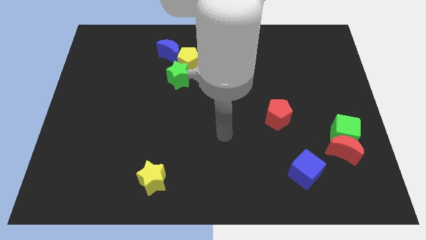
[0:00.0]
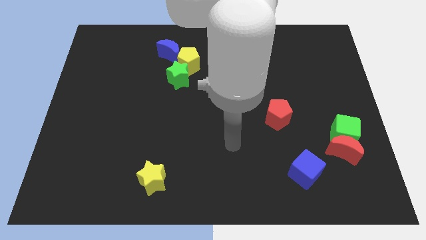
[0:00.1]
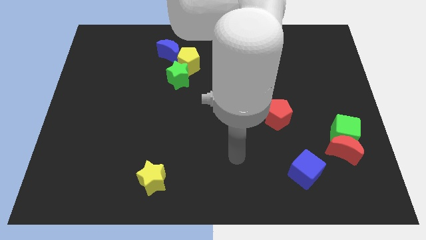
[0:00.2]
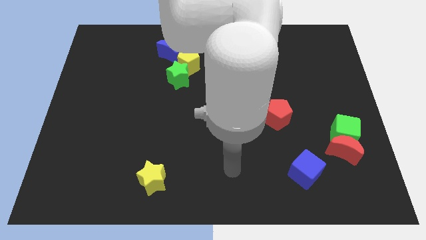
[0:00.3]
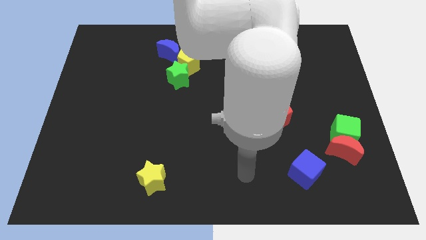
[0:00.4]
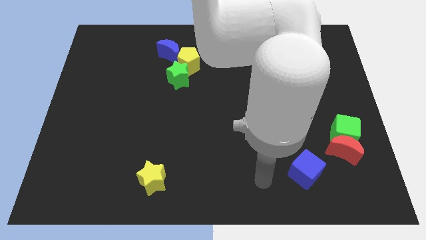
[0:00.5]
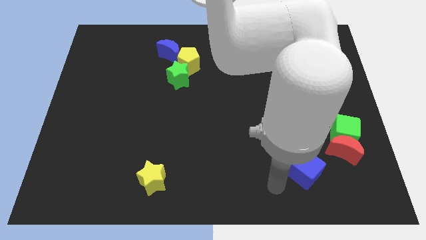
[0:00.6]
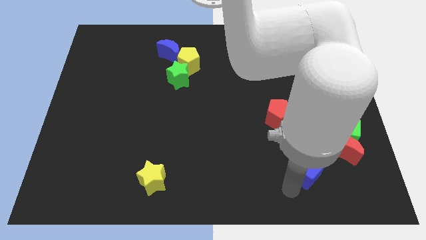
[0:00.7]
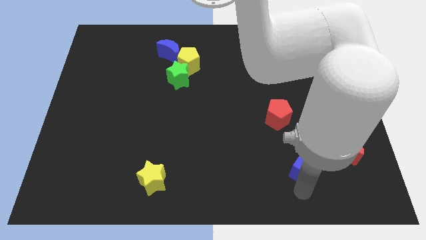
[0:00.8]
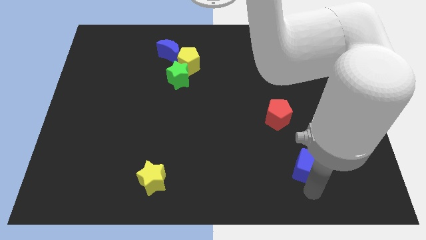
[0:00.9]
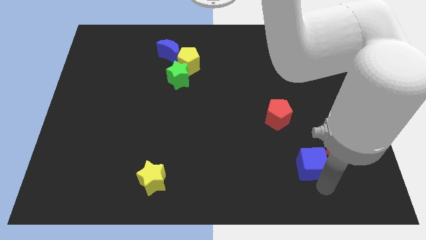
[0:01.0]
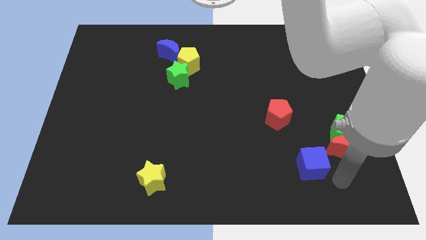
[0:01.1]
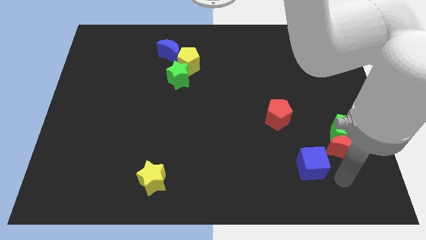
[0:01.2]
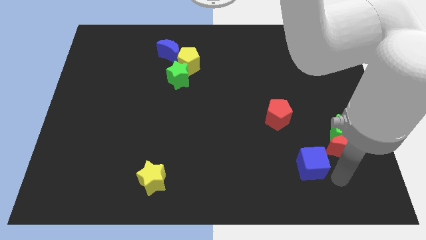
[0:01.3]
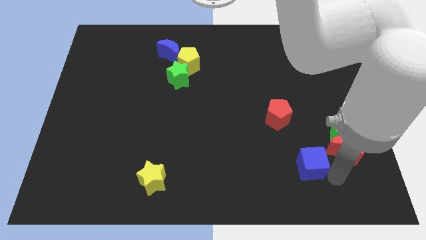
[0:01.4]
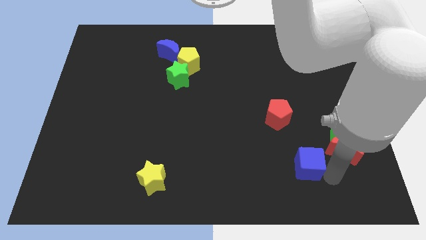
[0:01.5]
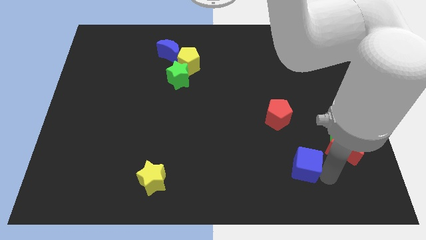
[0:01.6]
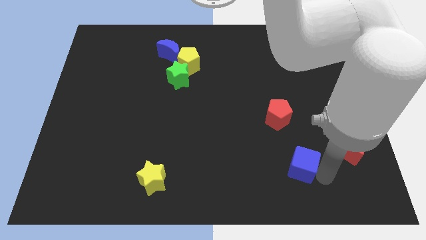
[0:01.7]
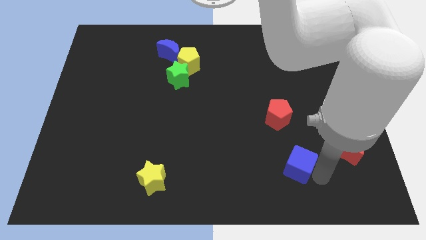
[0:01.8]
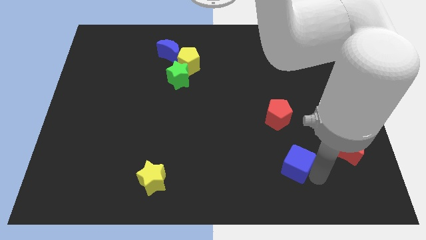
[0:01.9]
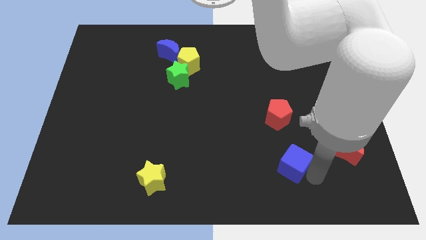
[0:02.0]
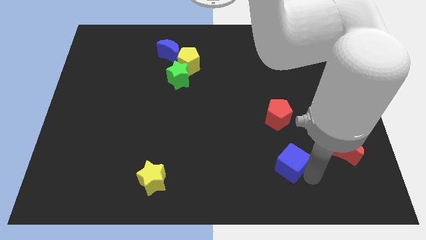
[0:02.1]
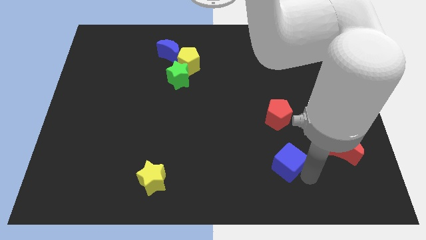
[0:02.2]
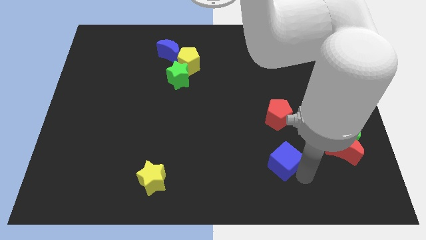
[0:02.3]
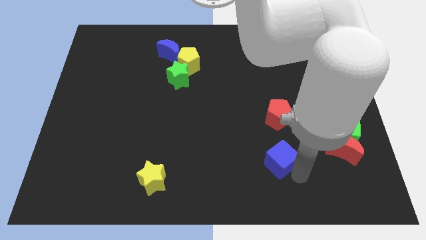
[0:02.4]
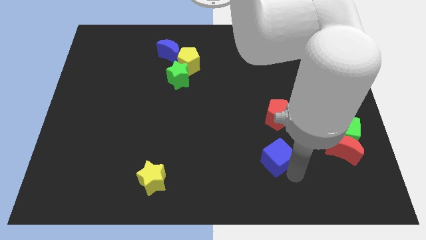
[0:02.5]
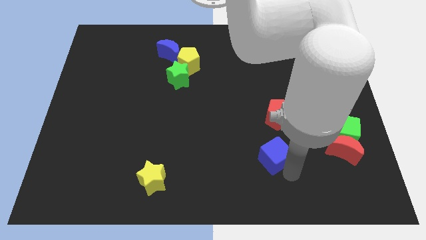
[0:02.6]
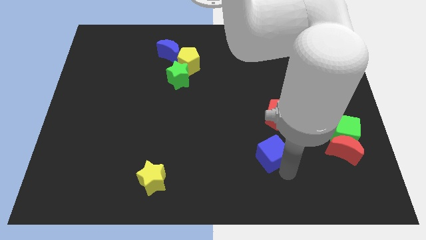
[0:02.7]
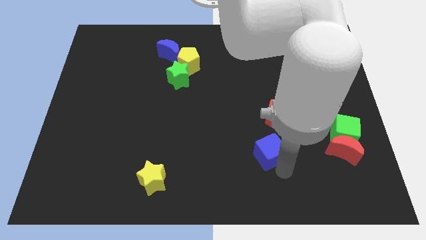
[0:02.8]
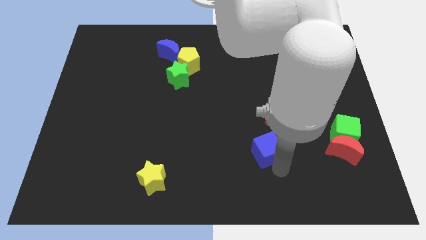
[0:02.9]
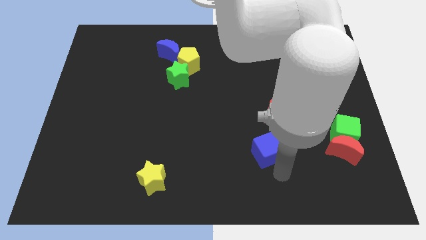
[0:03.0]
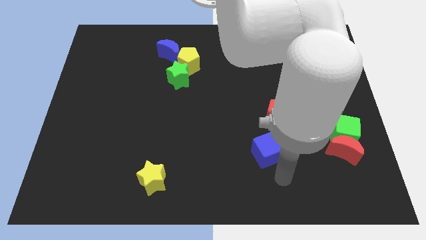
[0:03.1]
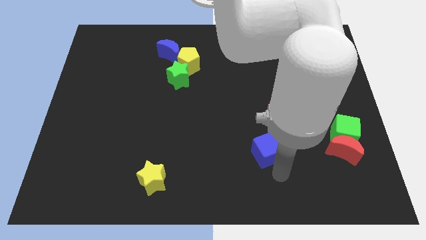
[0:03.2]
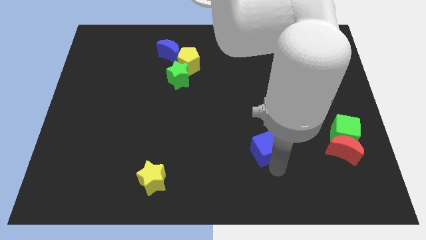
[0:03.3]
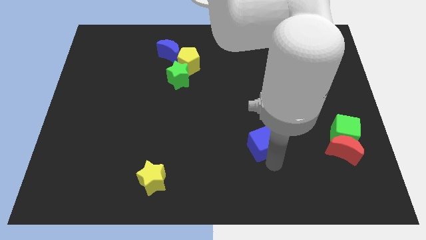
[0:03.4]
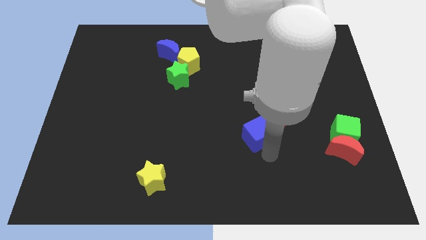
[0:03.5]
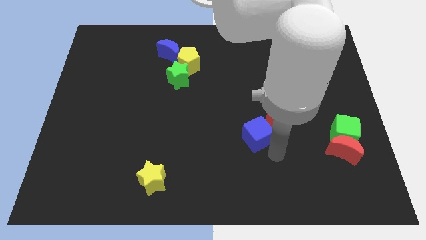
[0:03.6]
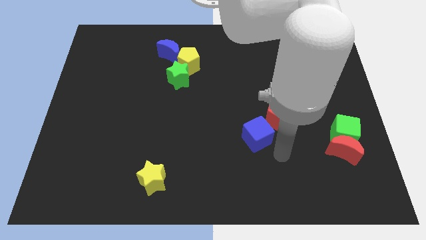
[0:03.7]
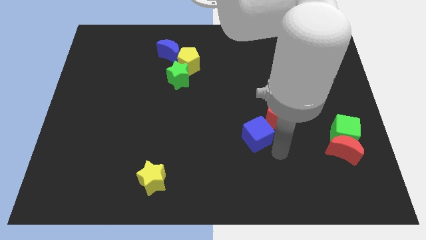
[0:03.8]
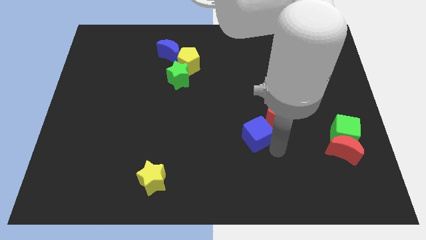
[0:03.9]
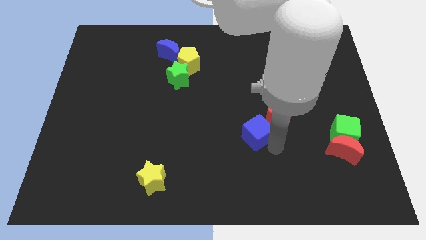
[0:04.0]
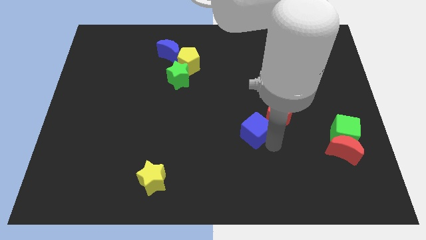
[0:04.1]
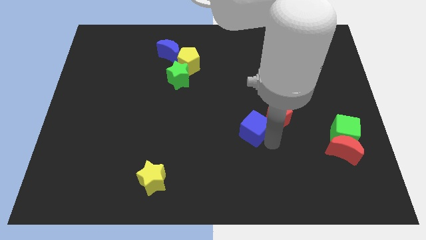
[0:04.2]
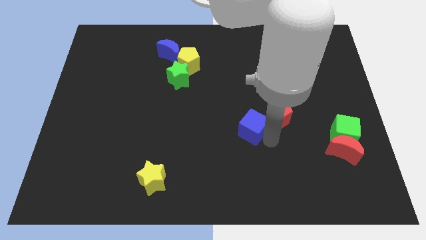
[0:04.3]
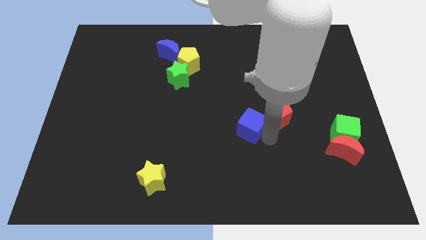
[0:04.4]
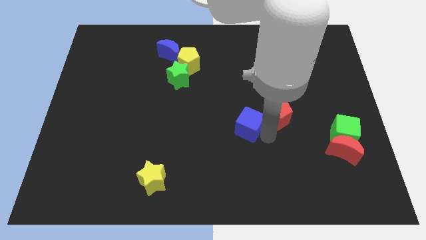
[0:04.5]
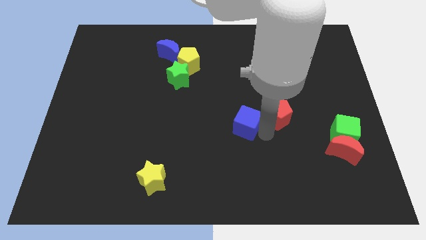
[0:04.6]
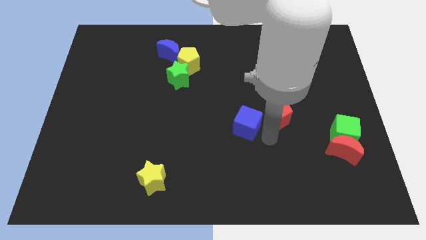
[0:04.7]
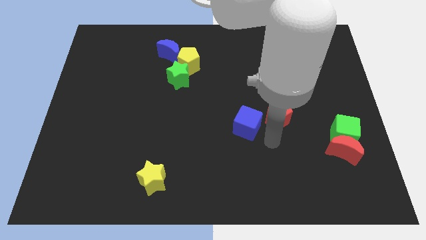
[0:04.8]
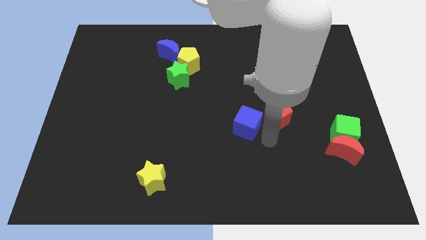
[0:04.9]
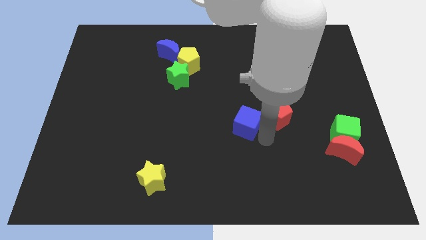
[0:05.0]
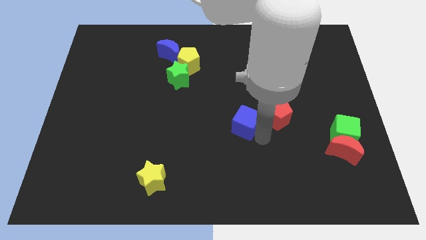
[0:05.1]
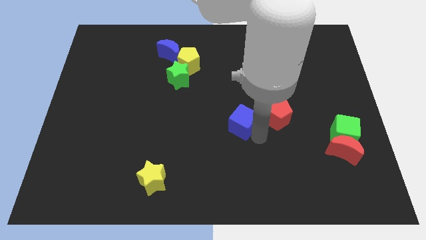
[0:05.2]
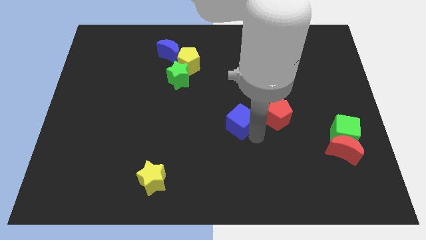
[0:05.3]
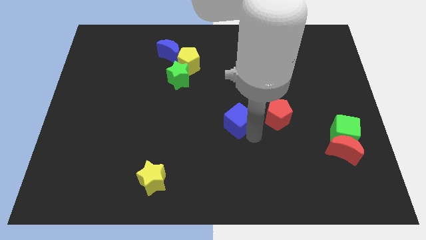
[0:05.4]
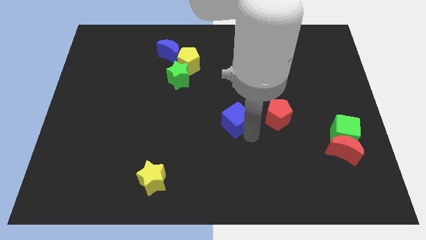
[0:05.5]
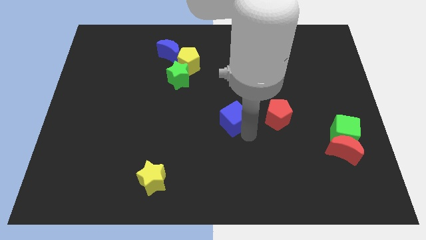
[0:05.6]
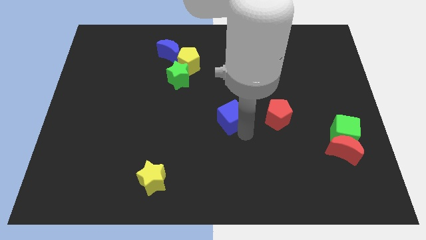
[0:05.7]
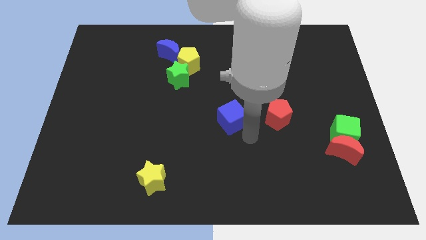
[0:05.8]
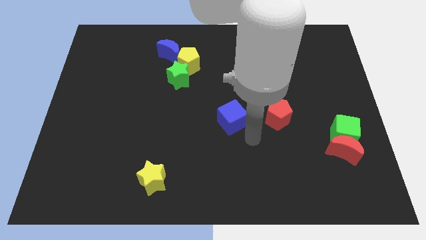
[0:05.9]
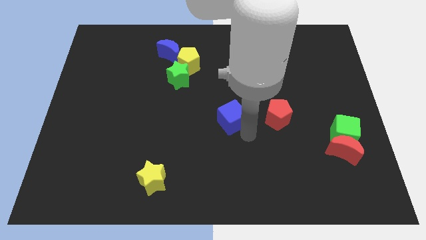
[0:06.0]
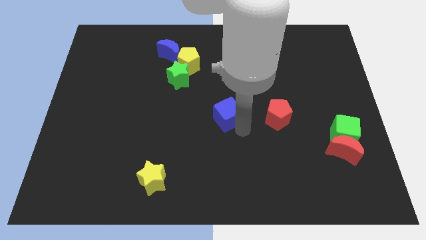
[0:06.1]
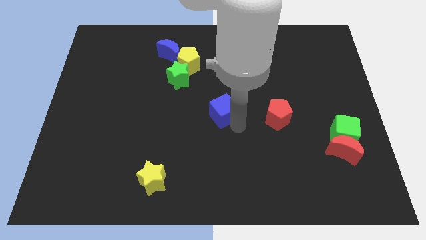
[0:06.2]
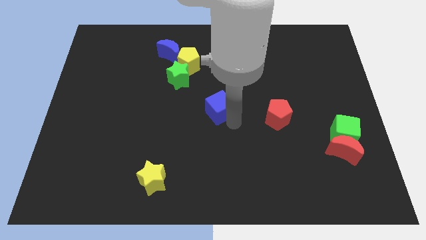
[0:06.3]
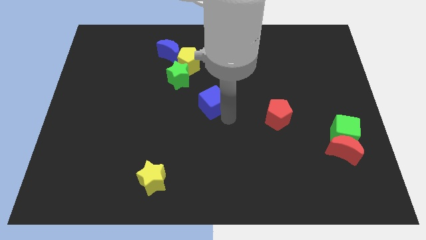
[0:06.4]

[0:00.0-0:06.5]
put the blue cube diagonally down and to the right of the green star
